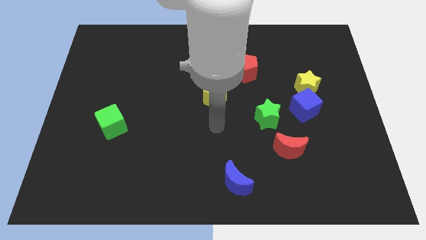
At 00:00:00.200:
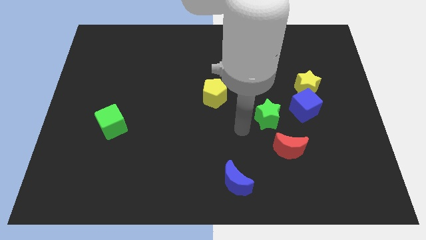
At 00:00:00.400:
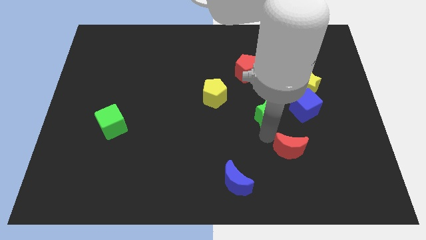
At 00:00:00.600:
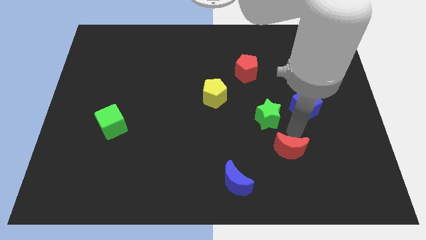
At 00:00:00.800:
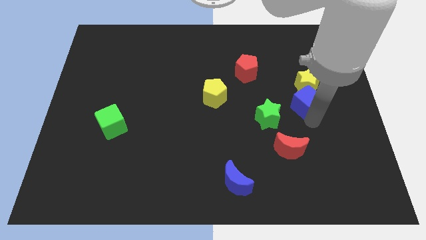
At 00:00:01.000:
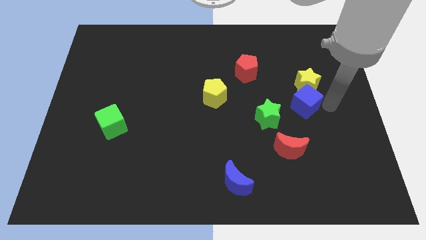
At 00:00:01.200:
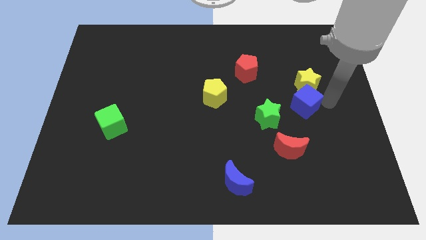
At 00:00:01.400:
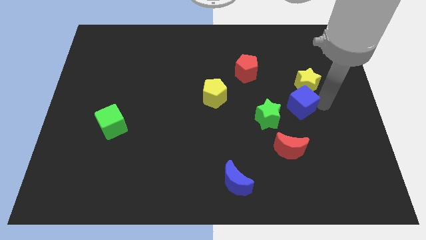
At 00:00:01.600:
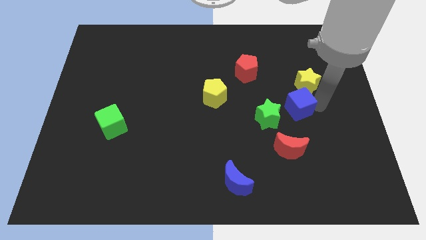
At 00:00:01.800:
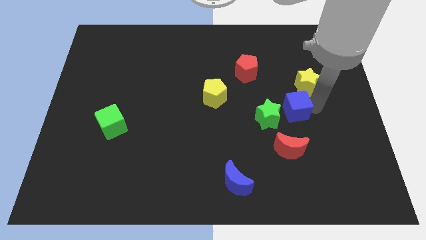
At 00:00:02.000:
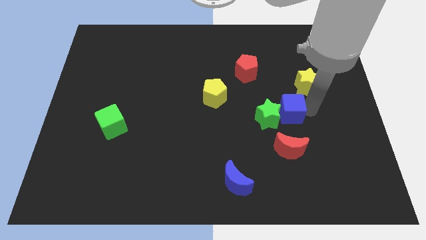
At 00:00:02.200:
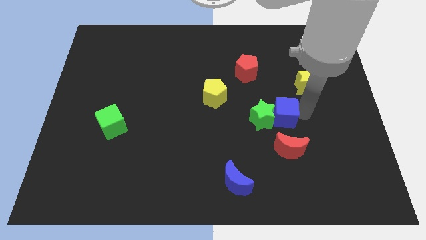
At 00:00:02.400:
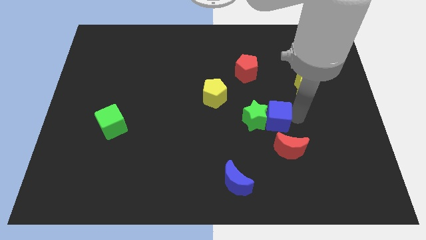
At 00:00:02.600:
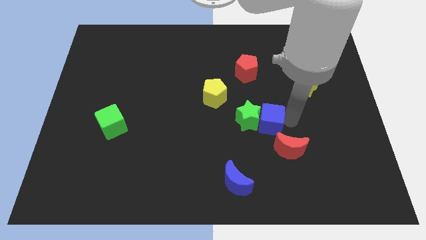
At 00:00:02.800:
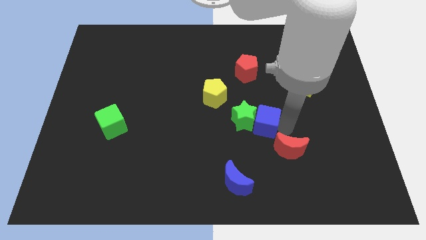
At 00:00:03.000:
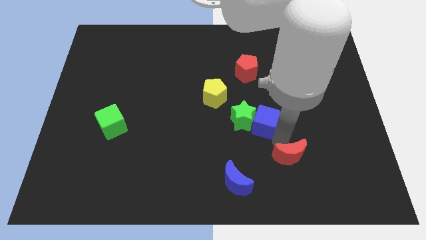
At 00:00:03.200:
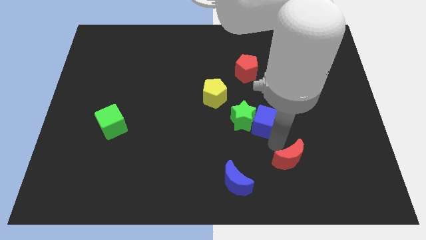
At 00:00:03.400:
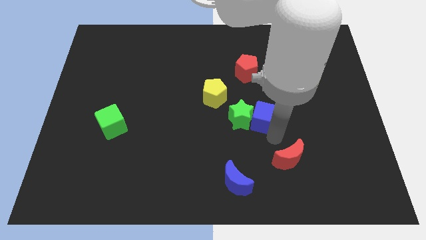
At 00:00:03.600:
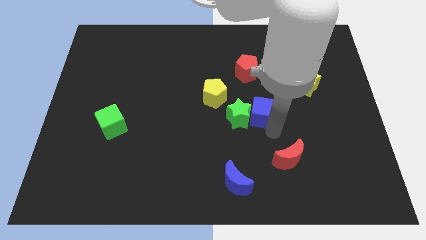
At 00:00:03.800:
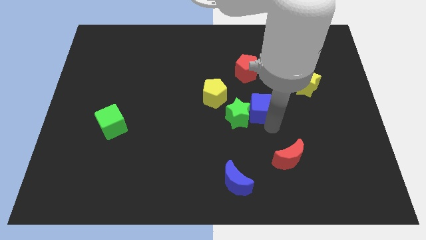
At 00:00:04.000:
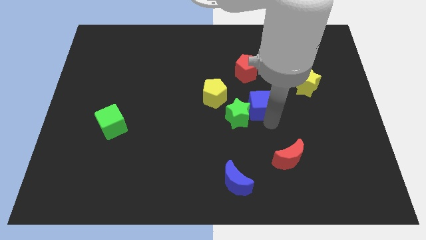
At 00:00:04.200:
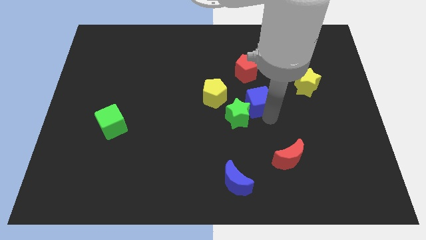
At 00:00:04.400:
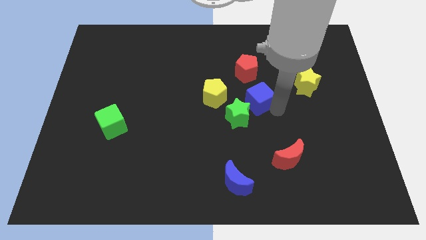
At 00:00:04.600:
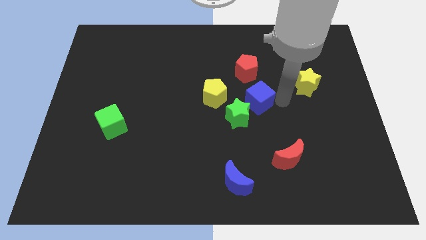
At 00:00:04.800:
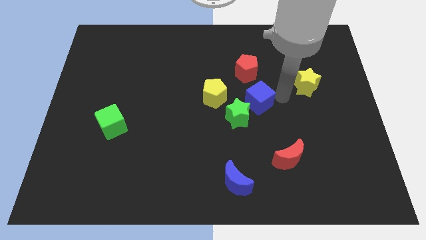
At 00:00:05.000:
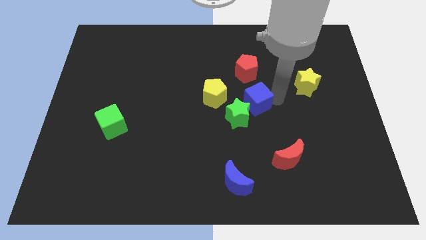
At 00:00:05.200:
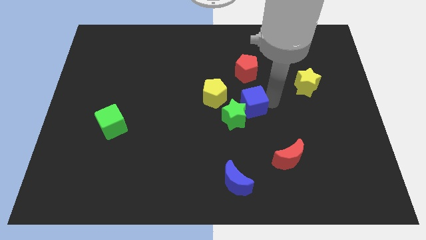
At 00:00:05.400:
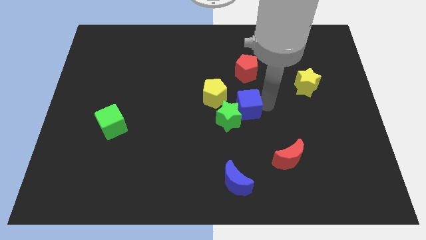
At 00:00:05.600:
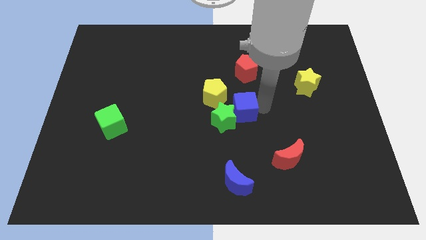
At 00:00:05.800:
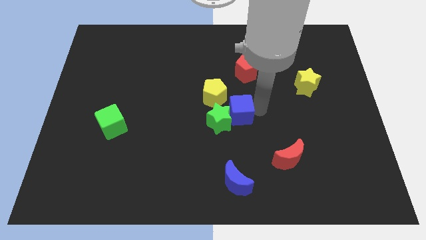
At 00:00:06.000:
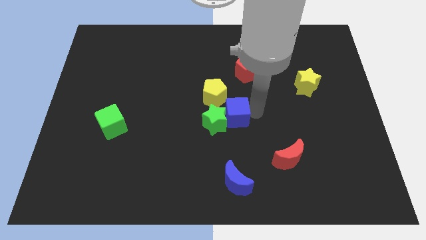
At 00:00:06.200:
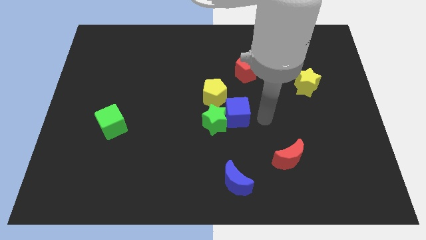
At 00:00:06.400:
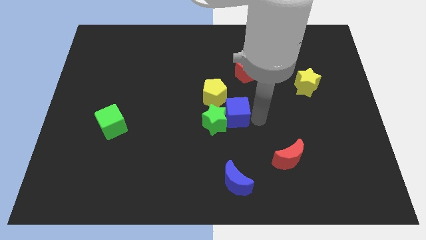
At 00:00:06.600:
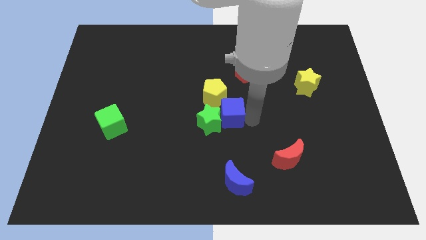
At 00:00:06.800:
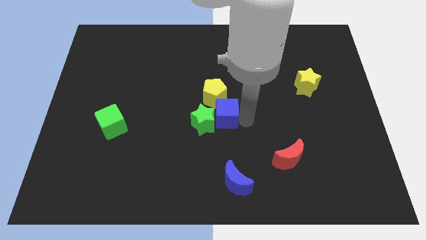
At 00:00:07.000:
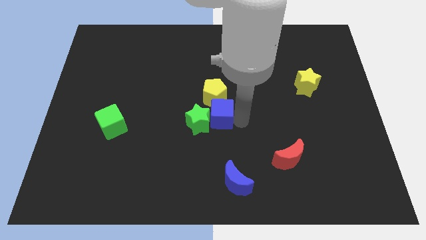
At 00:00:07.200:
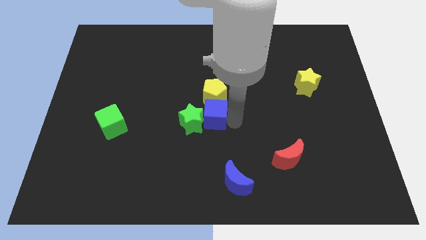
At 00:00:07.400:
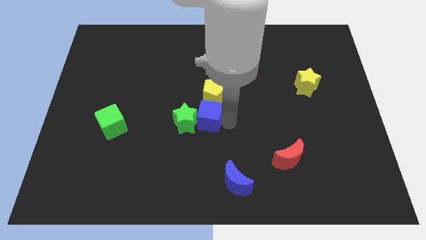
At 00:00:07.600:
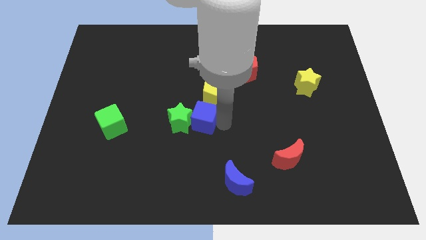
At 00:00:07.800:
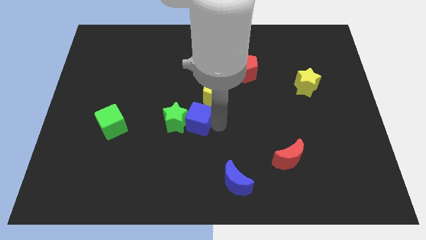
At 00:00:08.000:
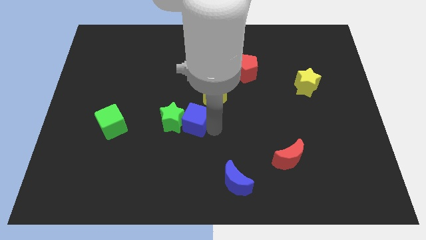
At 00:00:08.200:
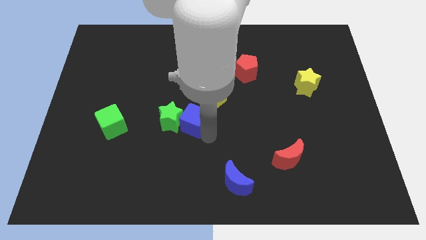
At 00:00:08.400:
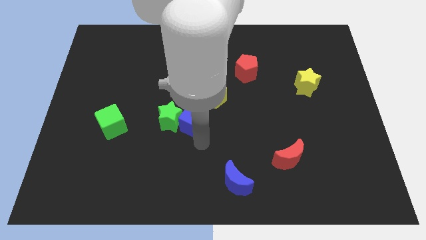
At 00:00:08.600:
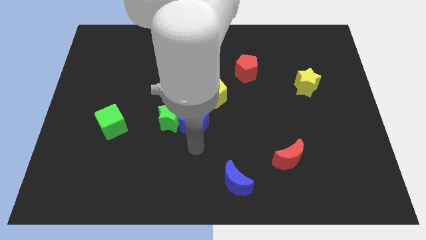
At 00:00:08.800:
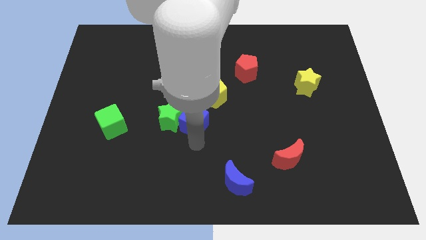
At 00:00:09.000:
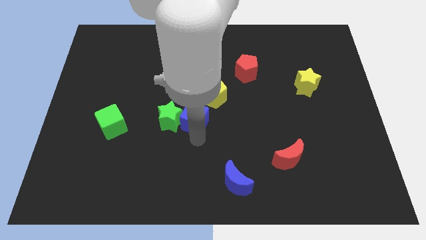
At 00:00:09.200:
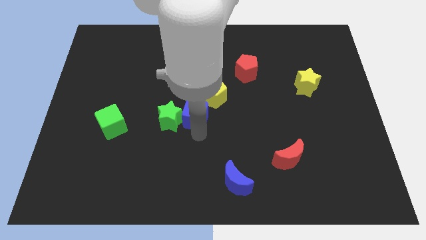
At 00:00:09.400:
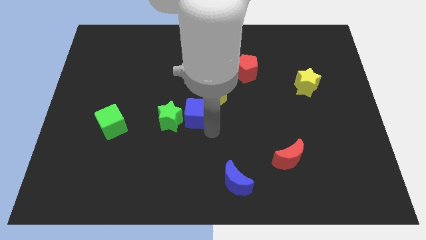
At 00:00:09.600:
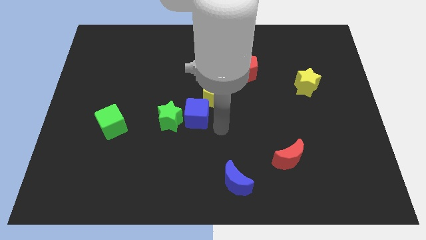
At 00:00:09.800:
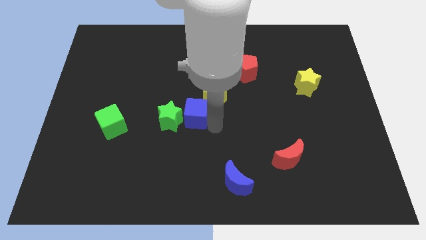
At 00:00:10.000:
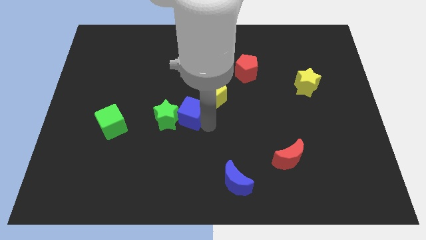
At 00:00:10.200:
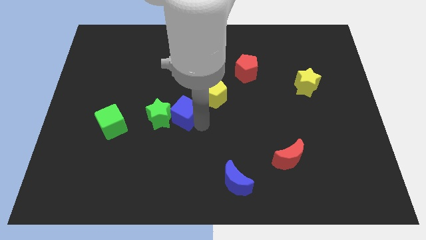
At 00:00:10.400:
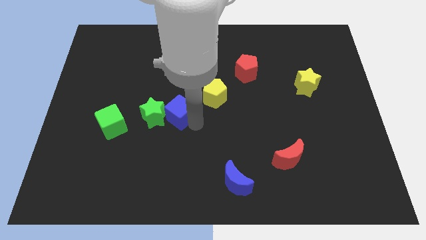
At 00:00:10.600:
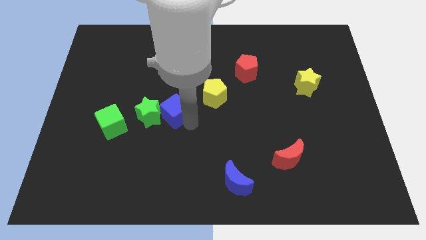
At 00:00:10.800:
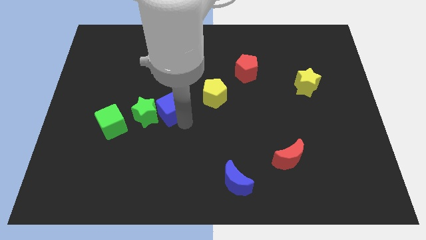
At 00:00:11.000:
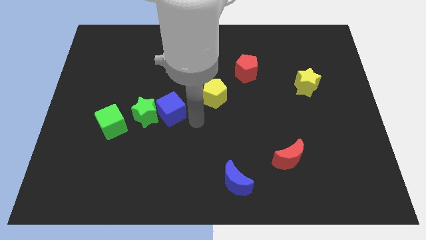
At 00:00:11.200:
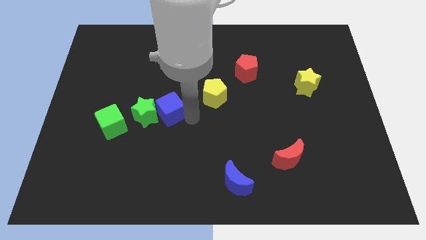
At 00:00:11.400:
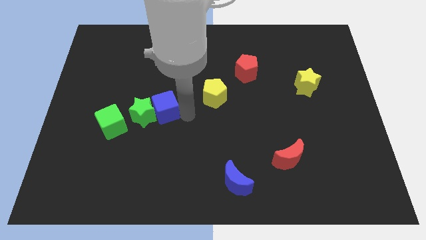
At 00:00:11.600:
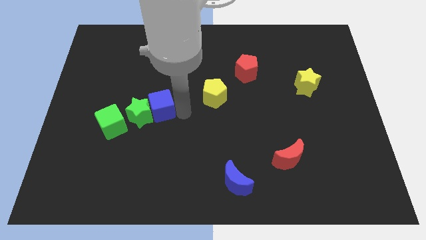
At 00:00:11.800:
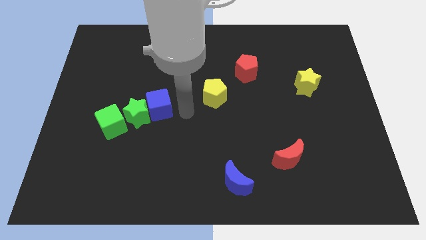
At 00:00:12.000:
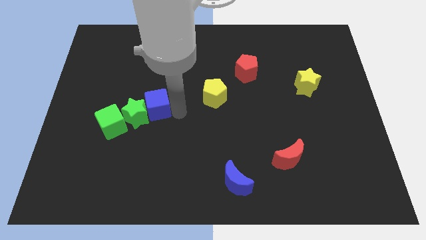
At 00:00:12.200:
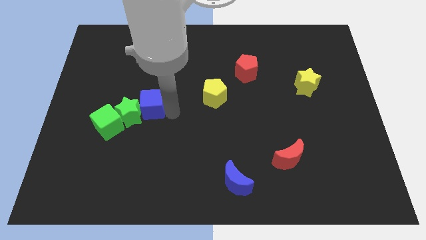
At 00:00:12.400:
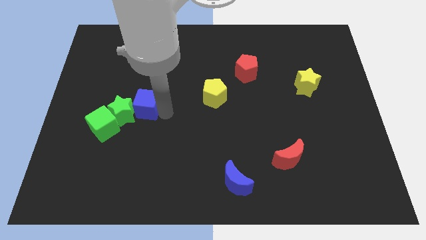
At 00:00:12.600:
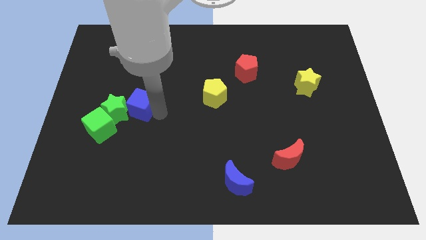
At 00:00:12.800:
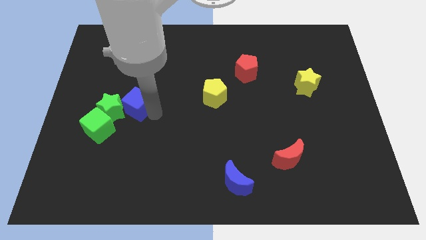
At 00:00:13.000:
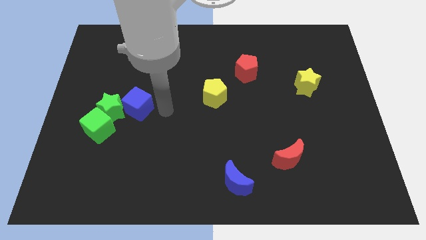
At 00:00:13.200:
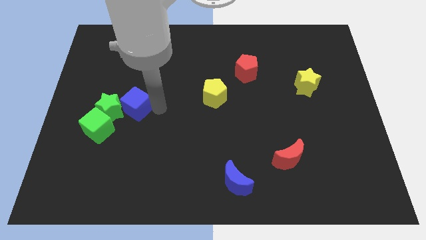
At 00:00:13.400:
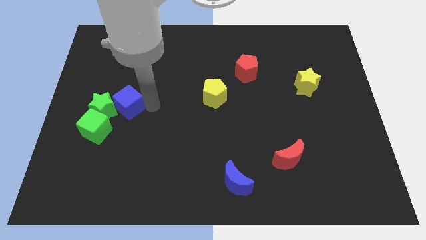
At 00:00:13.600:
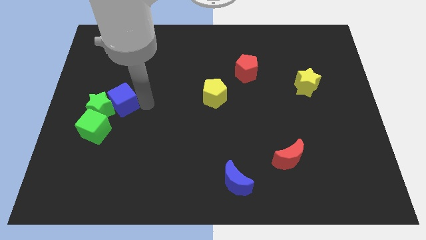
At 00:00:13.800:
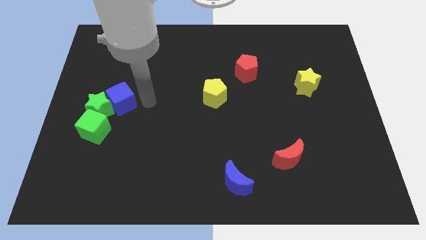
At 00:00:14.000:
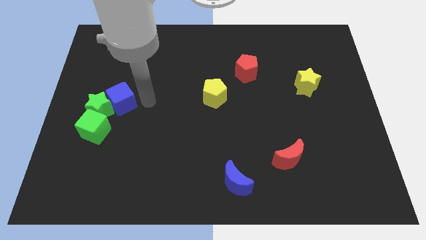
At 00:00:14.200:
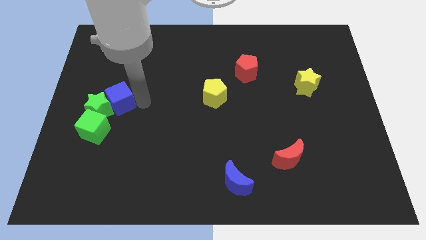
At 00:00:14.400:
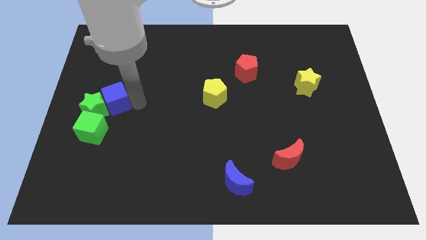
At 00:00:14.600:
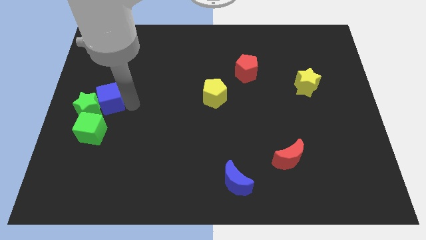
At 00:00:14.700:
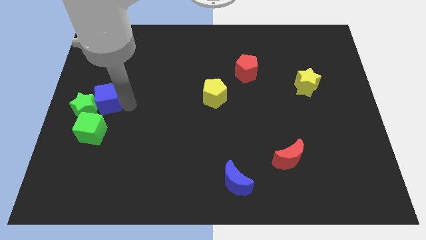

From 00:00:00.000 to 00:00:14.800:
slide the blue cube to the left side of the board
